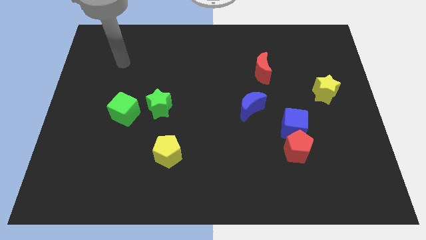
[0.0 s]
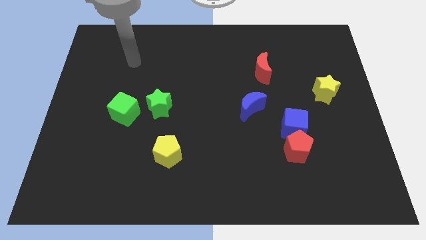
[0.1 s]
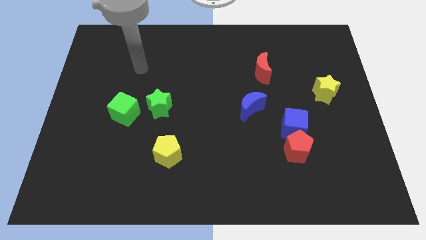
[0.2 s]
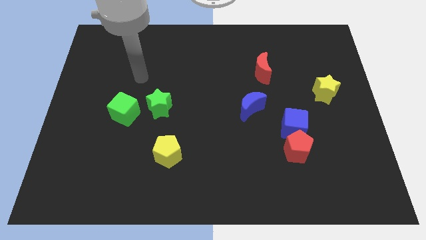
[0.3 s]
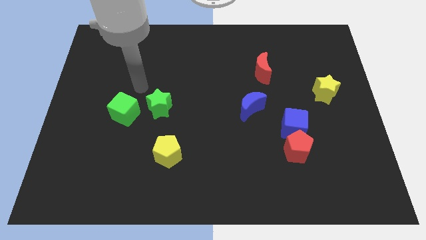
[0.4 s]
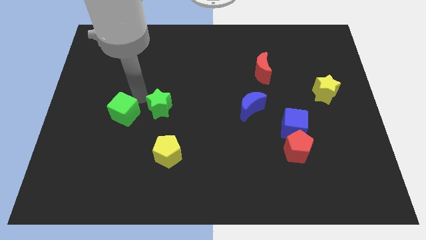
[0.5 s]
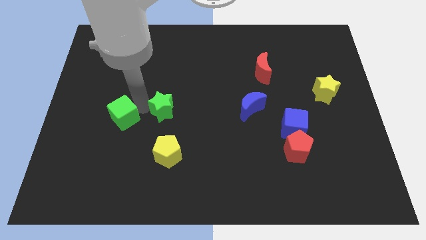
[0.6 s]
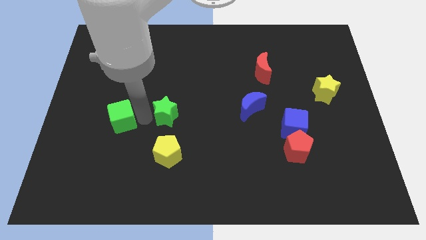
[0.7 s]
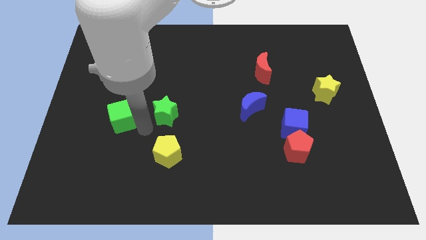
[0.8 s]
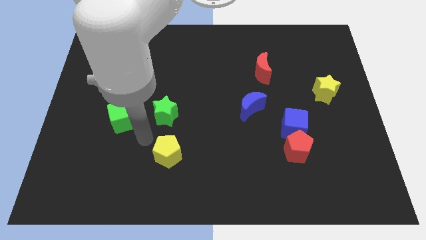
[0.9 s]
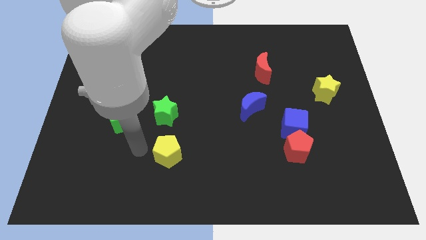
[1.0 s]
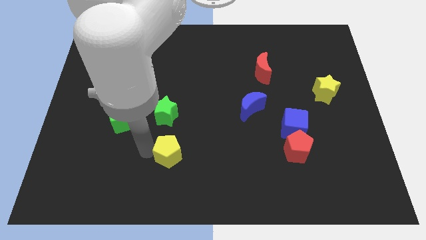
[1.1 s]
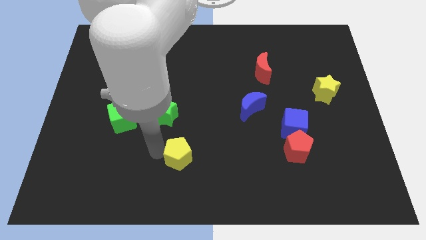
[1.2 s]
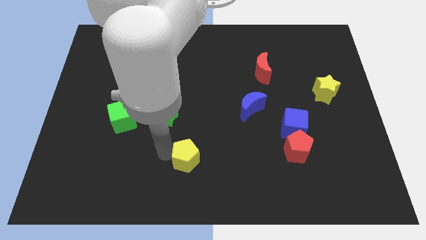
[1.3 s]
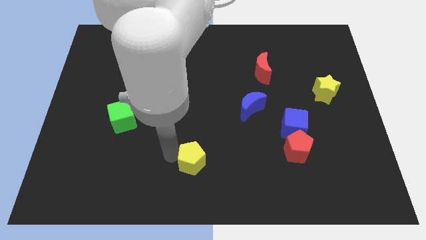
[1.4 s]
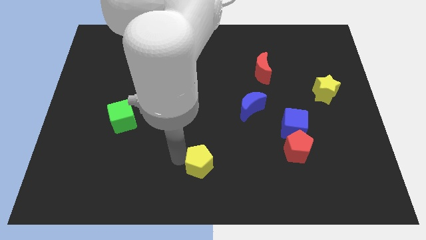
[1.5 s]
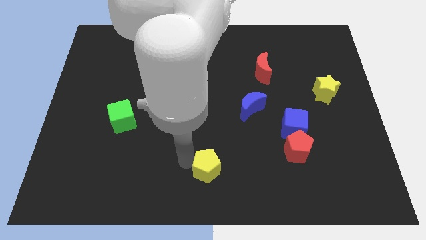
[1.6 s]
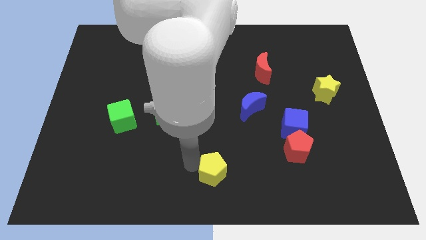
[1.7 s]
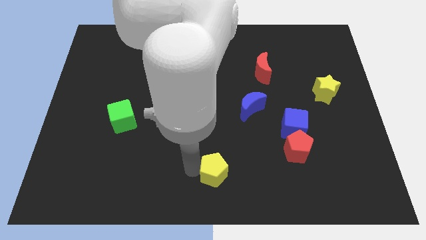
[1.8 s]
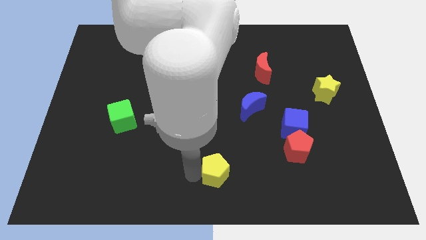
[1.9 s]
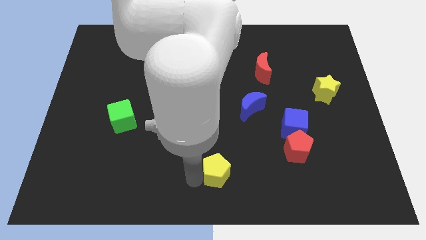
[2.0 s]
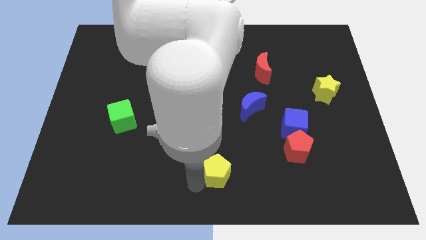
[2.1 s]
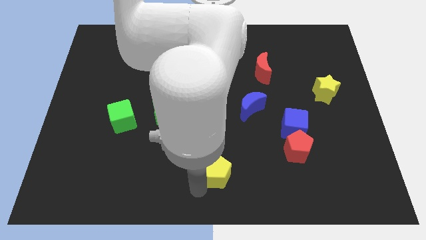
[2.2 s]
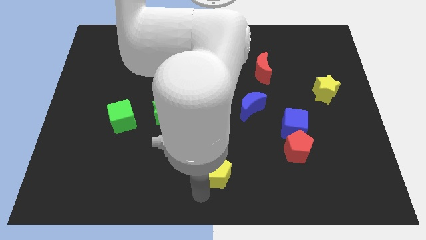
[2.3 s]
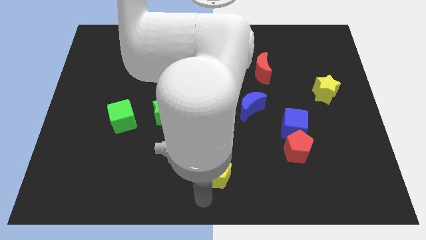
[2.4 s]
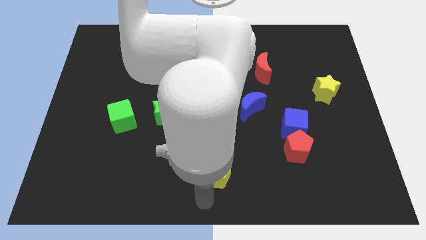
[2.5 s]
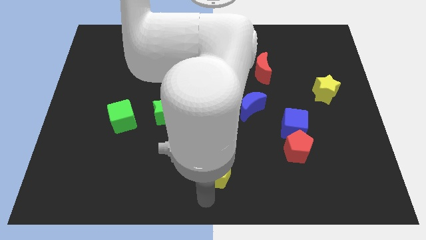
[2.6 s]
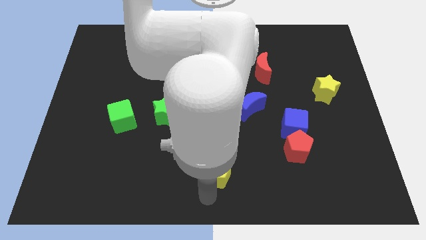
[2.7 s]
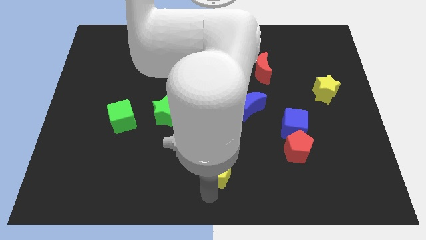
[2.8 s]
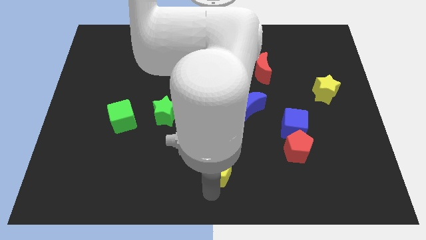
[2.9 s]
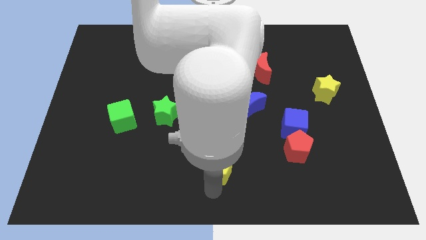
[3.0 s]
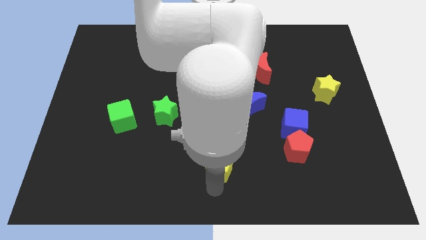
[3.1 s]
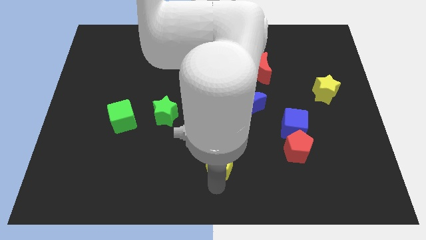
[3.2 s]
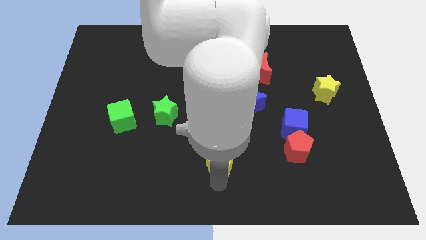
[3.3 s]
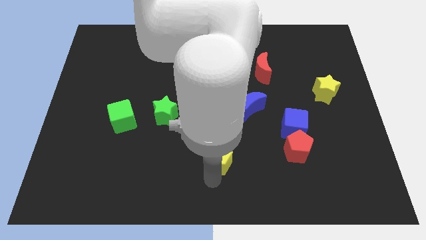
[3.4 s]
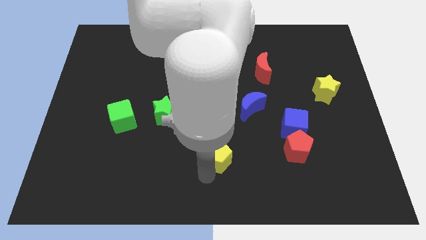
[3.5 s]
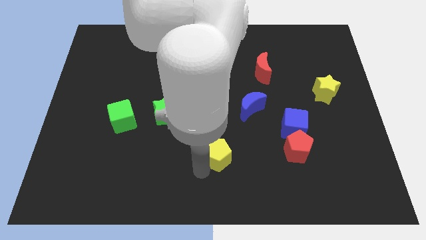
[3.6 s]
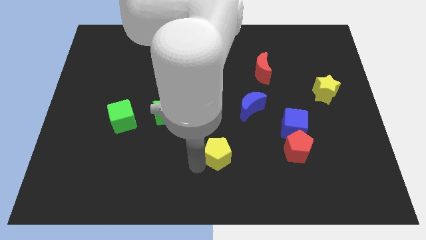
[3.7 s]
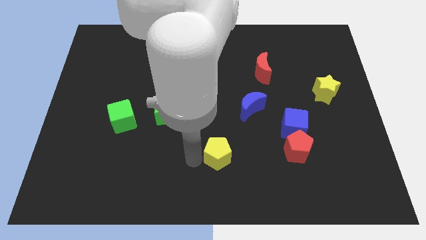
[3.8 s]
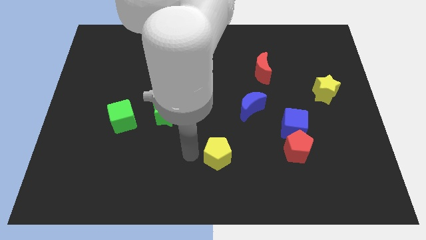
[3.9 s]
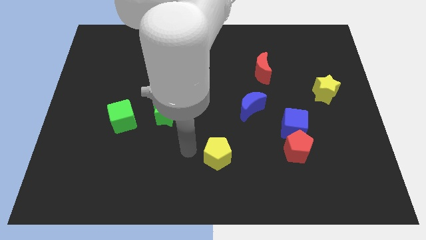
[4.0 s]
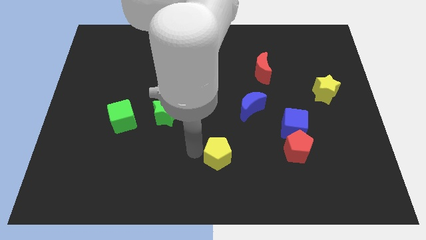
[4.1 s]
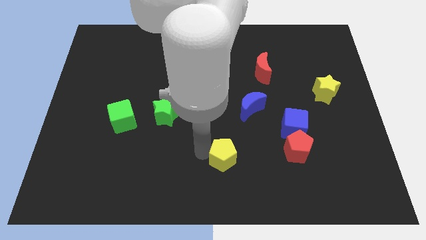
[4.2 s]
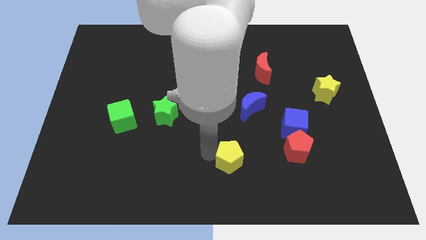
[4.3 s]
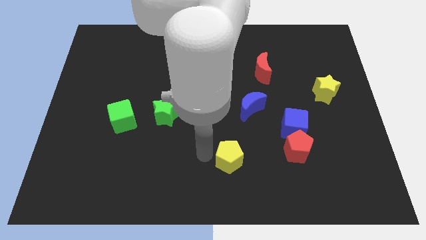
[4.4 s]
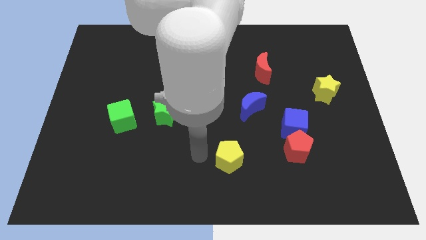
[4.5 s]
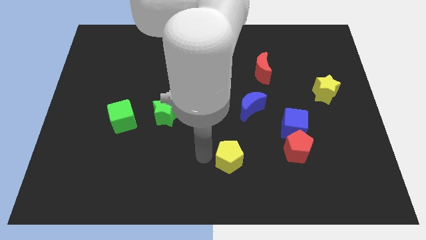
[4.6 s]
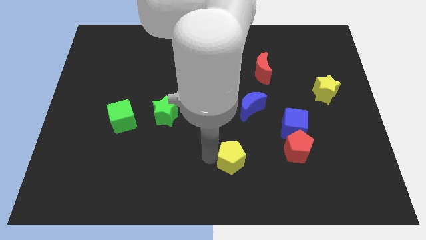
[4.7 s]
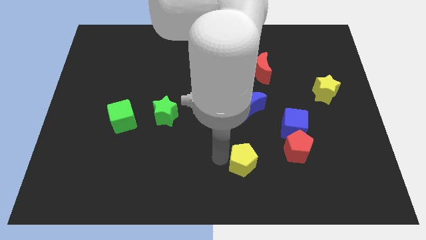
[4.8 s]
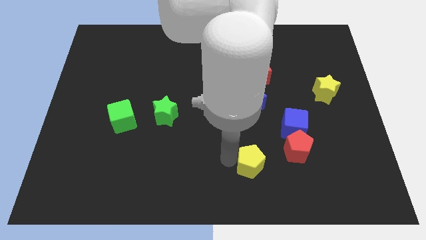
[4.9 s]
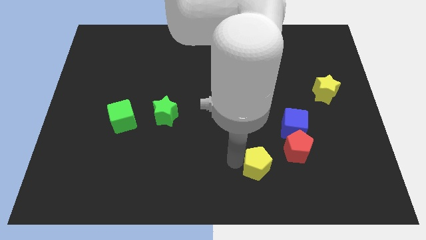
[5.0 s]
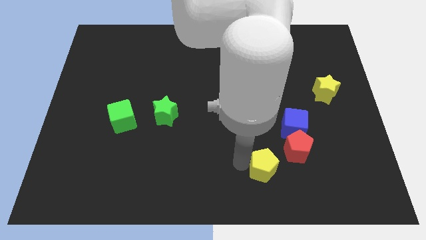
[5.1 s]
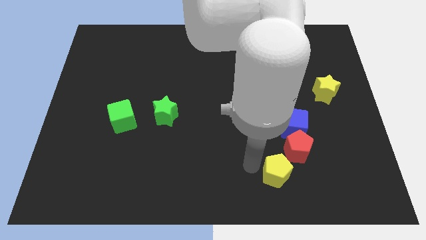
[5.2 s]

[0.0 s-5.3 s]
slide the yellow pentagon right

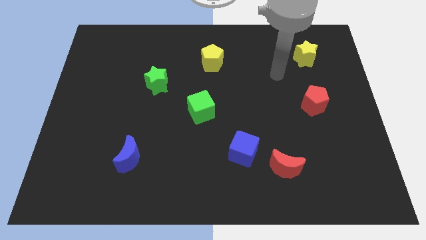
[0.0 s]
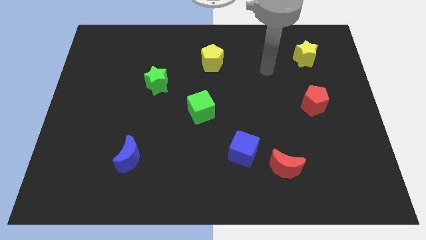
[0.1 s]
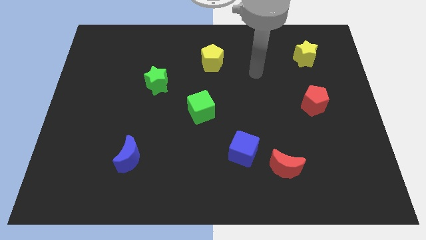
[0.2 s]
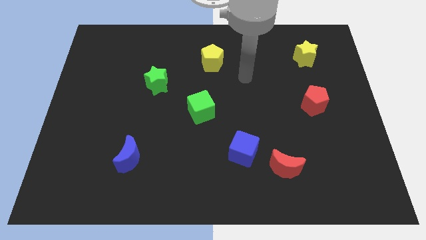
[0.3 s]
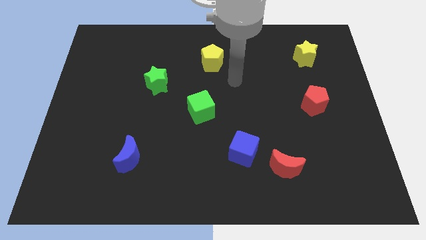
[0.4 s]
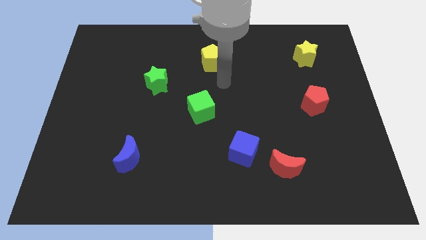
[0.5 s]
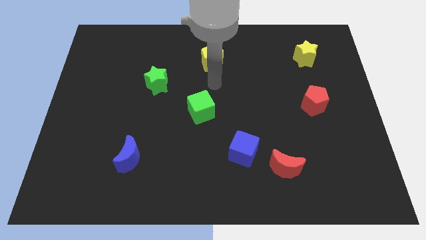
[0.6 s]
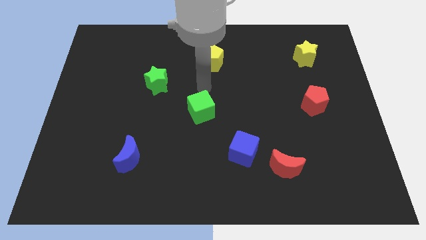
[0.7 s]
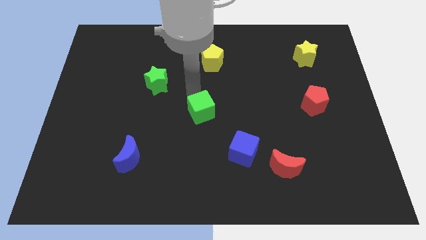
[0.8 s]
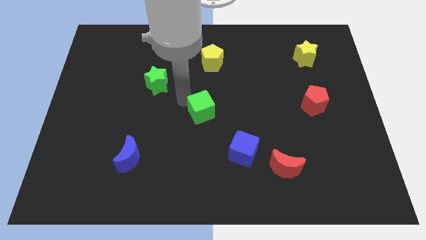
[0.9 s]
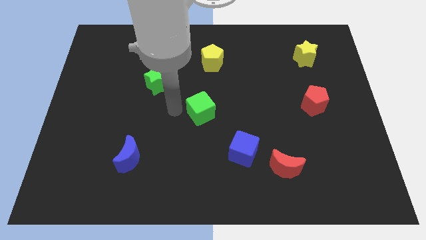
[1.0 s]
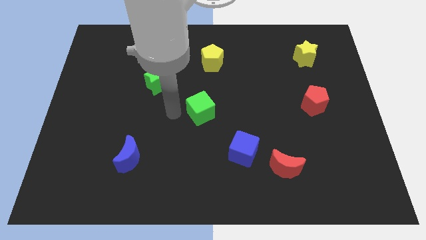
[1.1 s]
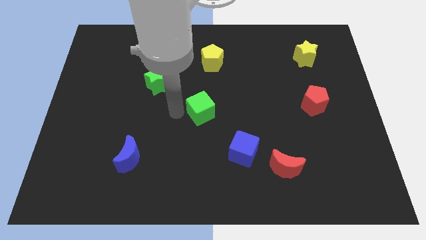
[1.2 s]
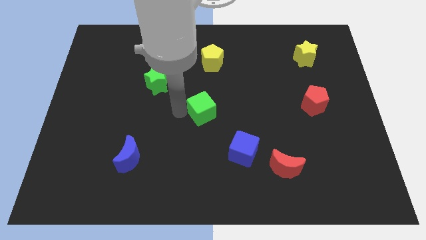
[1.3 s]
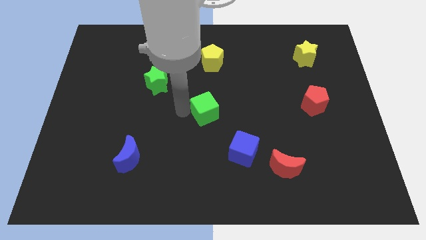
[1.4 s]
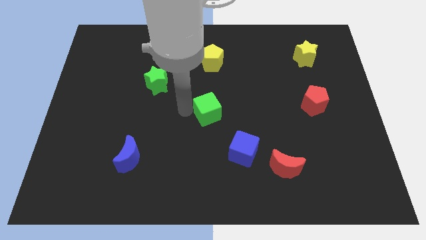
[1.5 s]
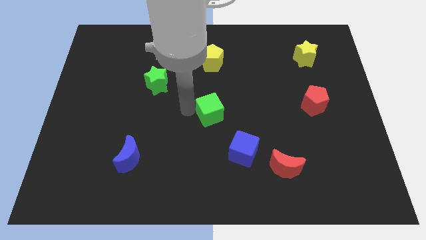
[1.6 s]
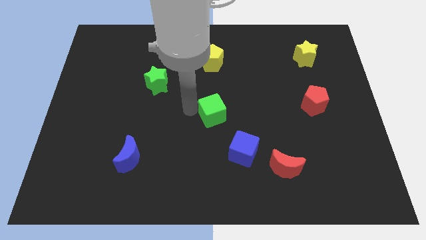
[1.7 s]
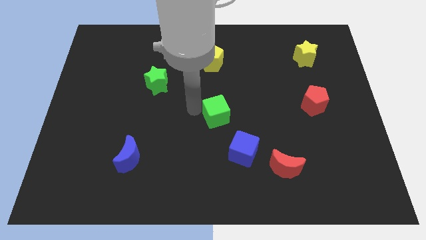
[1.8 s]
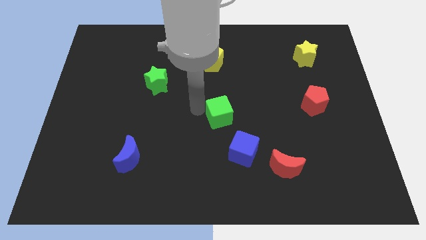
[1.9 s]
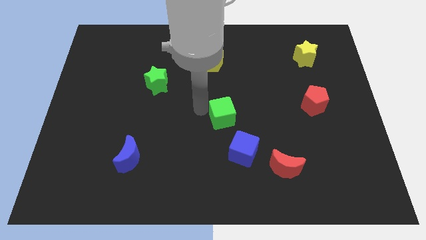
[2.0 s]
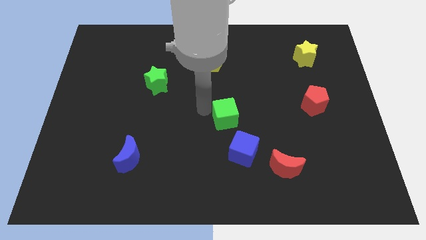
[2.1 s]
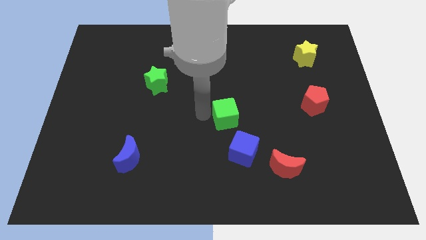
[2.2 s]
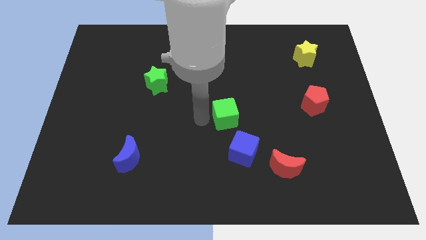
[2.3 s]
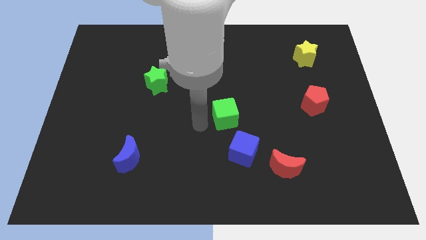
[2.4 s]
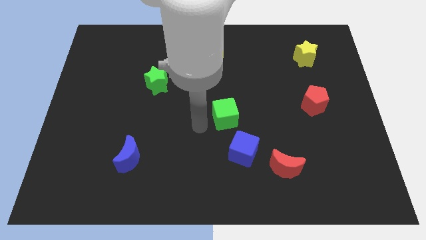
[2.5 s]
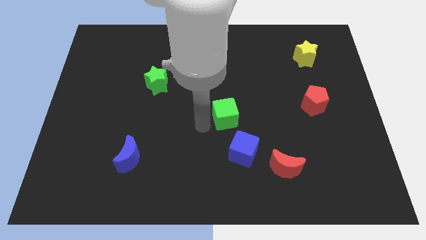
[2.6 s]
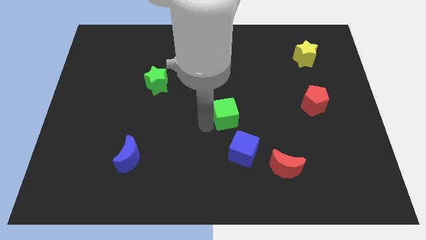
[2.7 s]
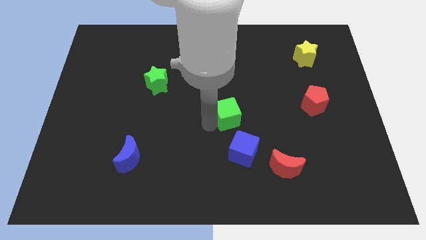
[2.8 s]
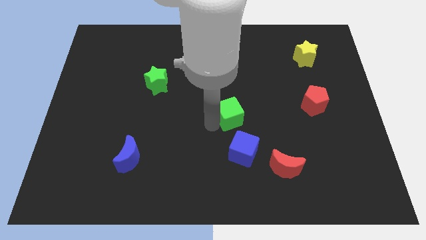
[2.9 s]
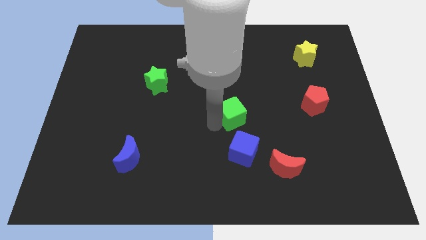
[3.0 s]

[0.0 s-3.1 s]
move the green cube slightly to the right
